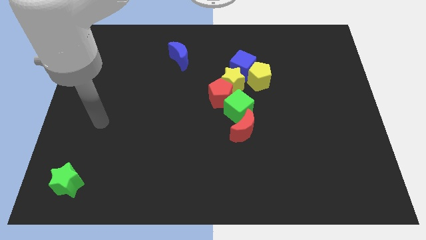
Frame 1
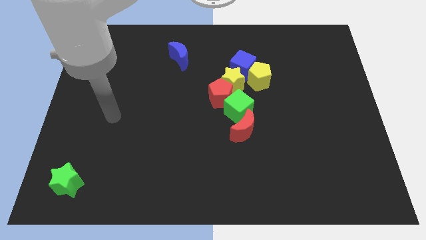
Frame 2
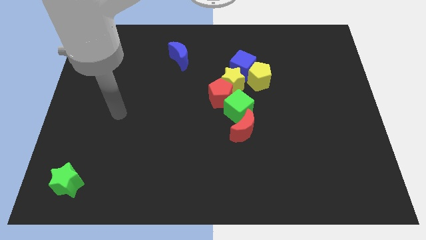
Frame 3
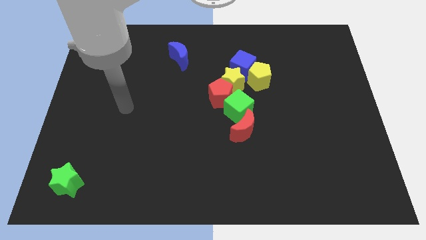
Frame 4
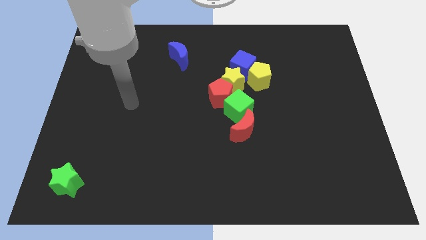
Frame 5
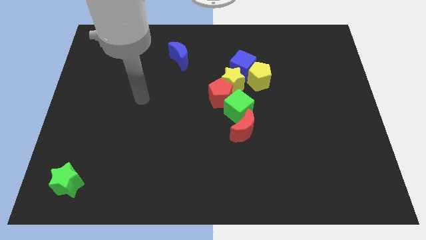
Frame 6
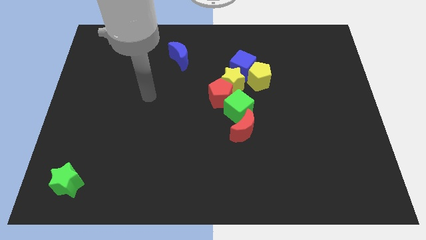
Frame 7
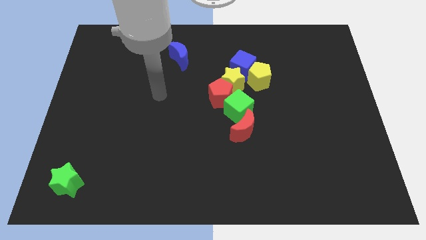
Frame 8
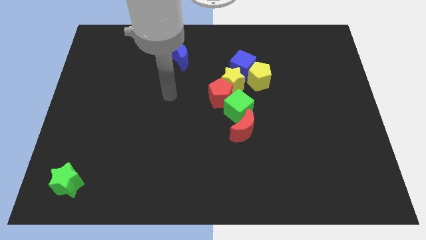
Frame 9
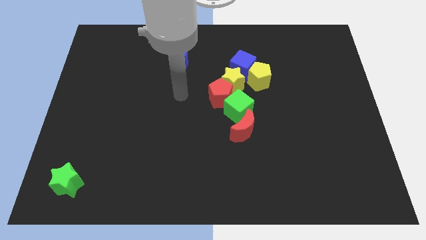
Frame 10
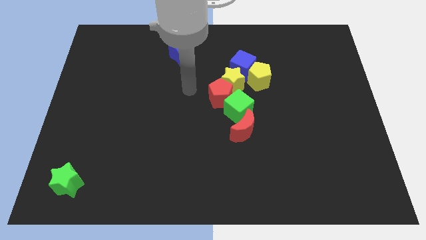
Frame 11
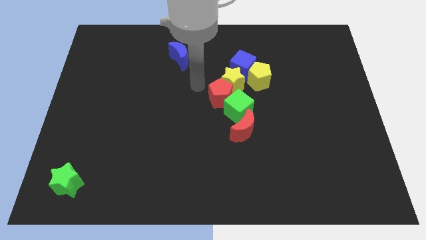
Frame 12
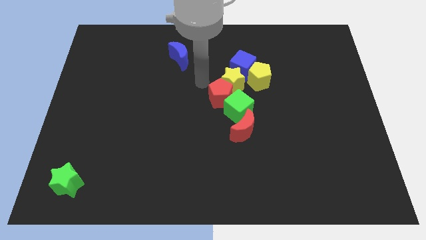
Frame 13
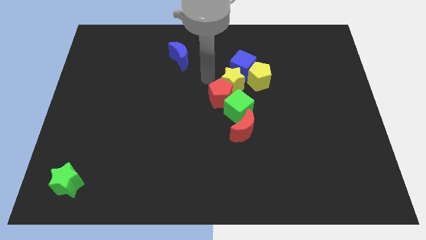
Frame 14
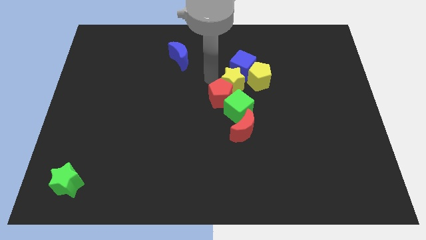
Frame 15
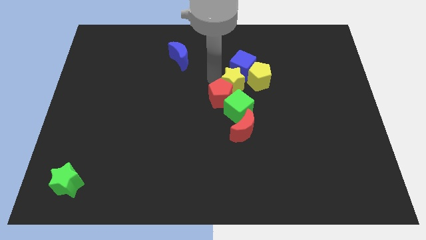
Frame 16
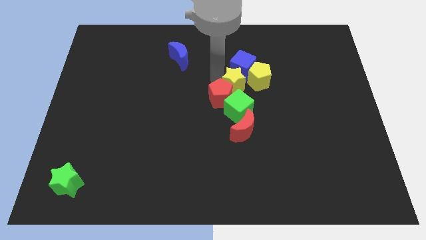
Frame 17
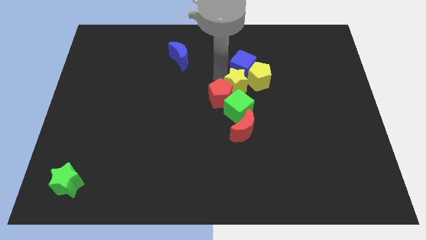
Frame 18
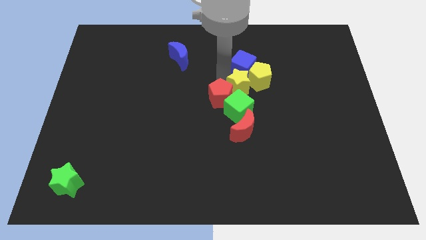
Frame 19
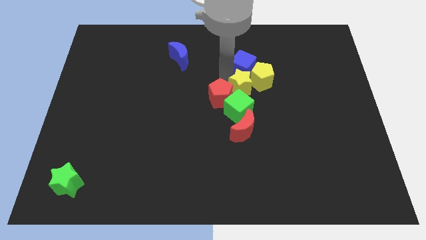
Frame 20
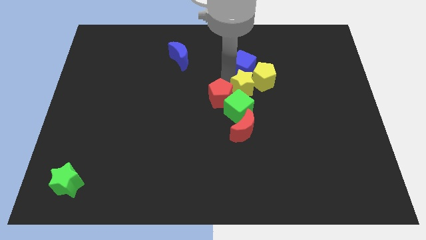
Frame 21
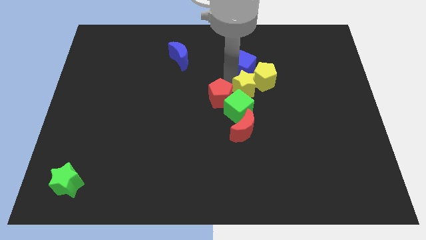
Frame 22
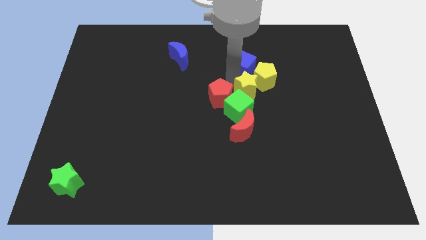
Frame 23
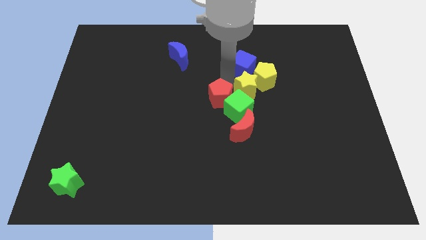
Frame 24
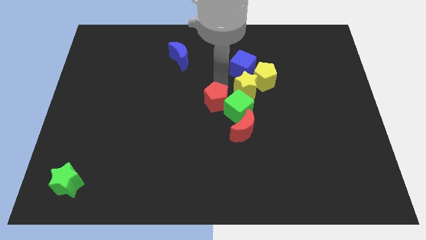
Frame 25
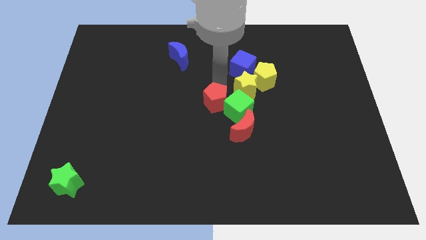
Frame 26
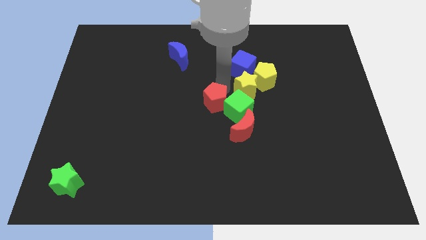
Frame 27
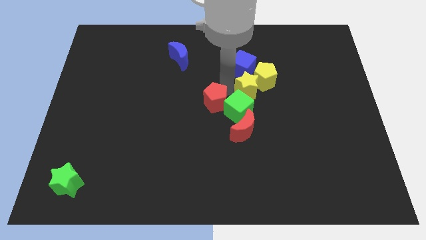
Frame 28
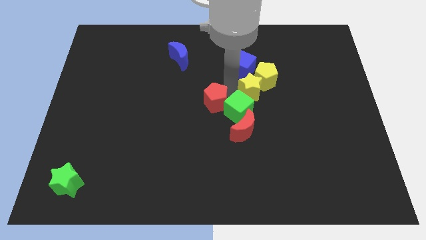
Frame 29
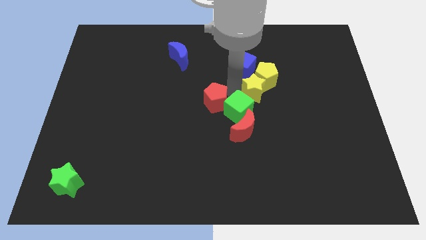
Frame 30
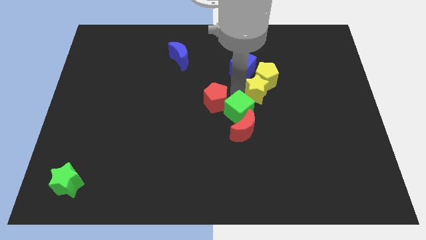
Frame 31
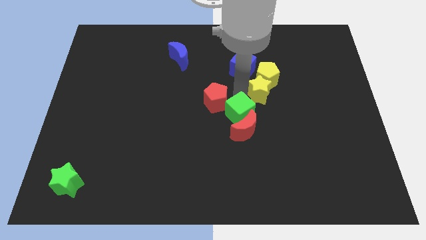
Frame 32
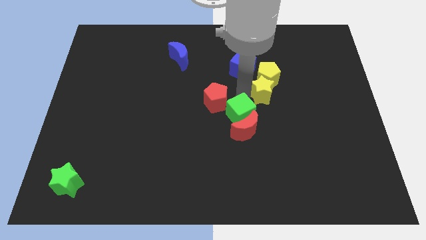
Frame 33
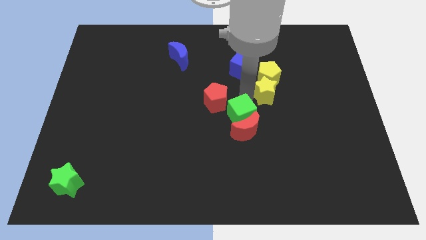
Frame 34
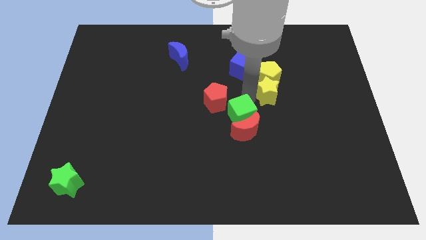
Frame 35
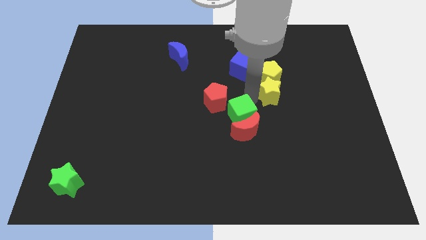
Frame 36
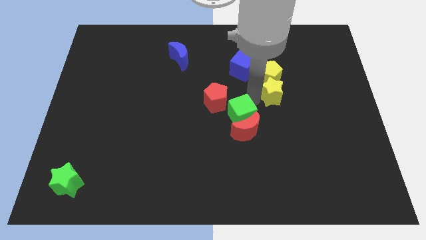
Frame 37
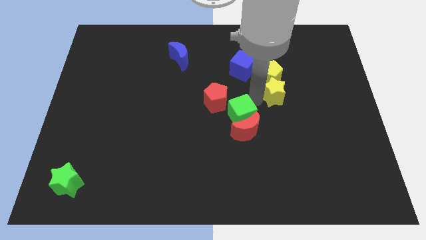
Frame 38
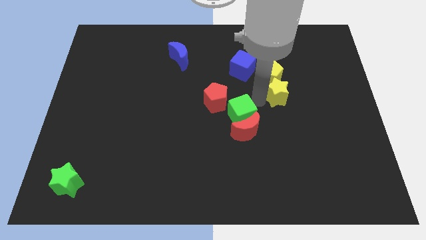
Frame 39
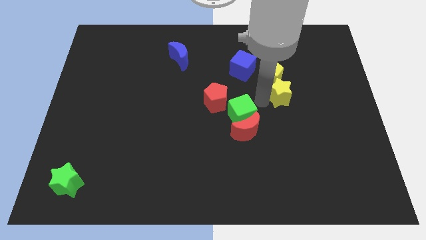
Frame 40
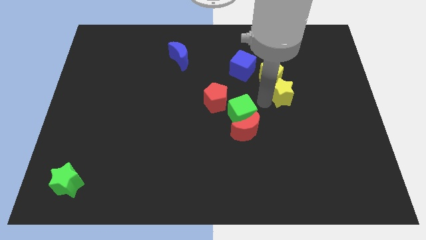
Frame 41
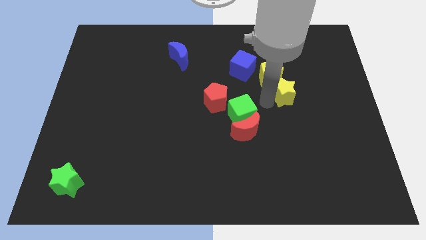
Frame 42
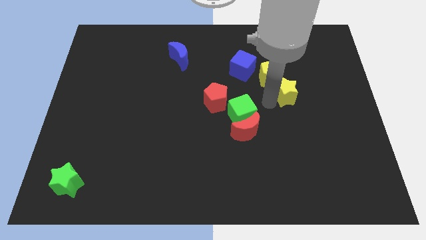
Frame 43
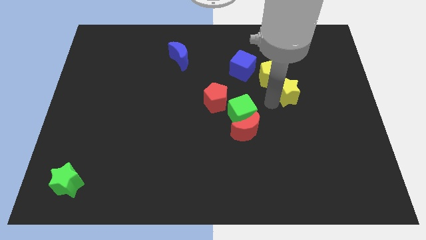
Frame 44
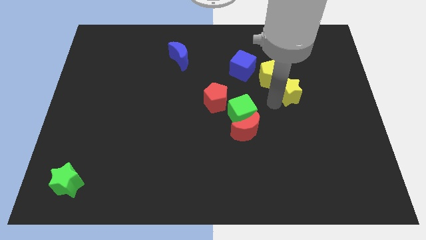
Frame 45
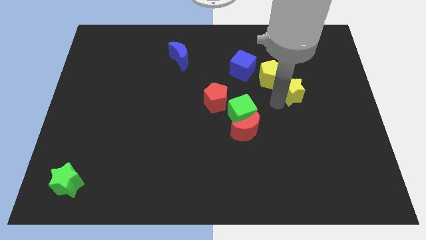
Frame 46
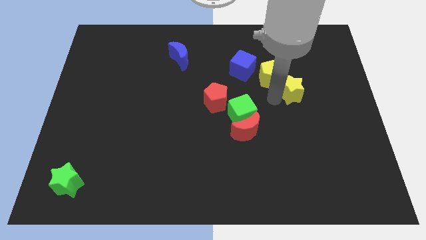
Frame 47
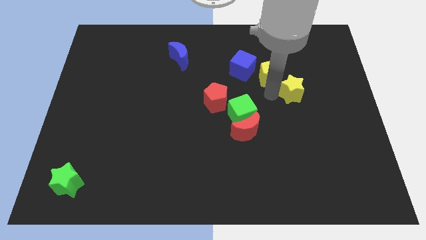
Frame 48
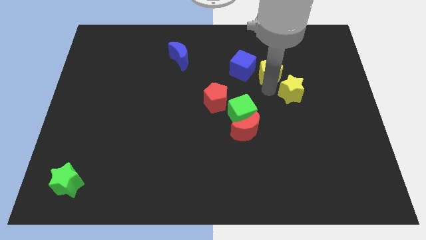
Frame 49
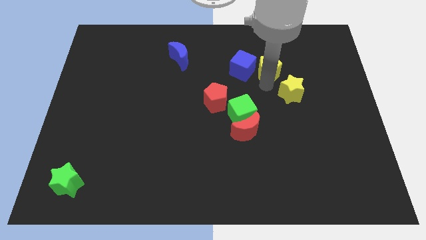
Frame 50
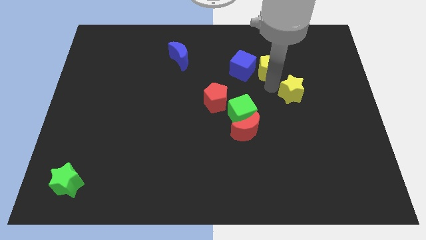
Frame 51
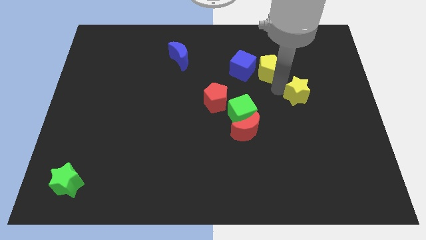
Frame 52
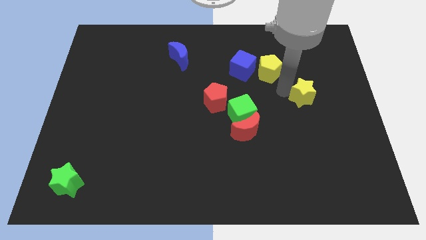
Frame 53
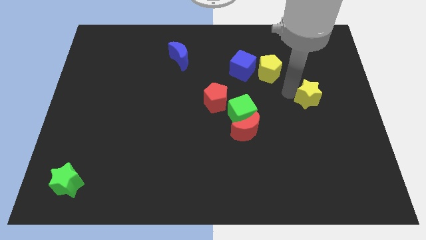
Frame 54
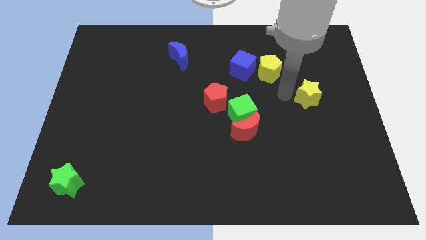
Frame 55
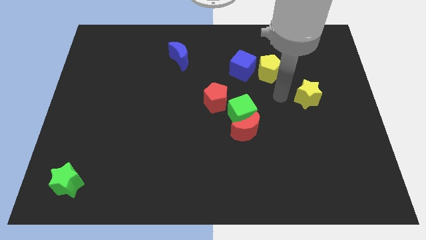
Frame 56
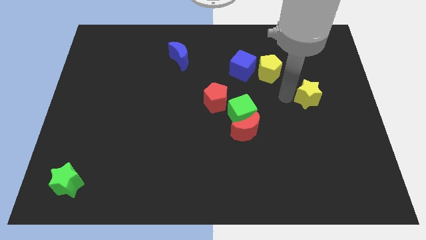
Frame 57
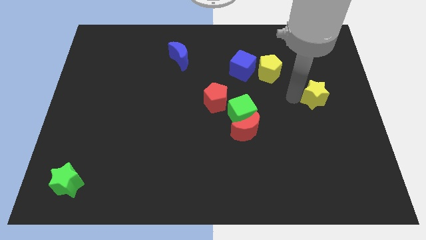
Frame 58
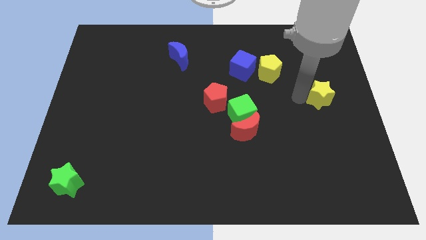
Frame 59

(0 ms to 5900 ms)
push the yellow star to the right side of the board
